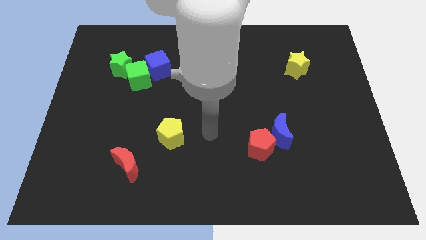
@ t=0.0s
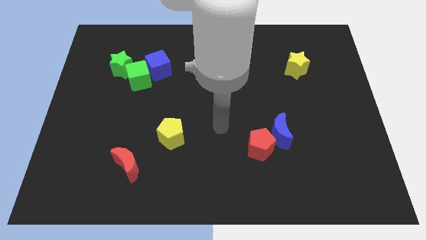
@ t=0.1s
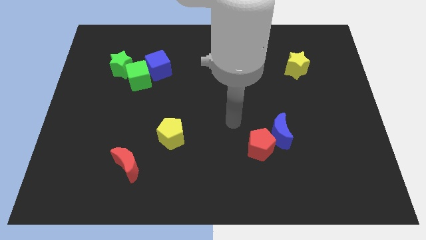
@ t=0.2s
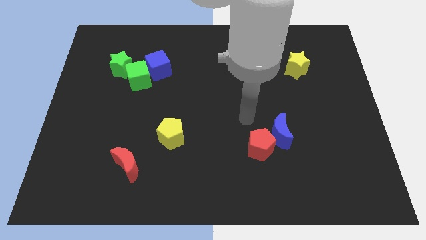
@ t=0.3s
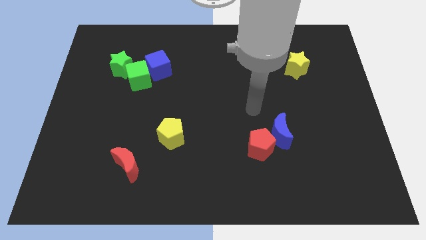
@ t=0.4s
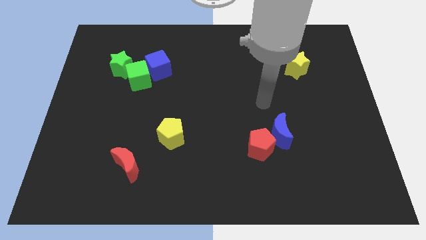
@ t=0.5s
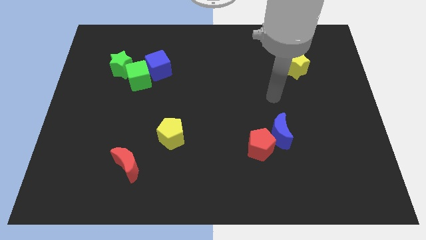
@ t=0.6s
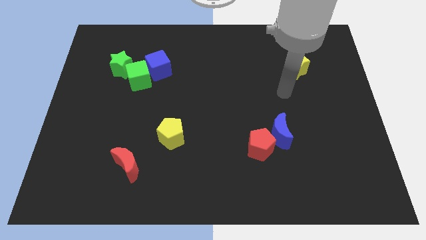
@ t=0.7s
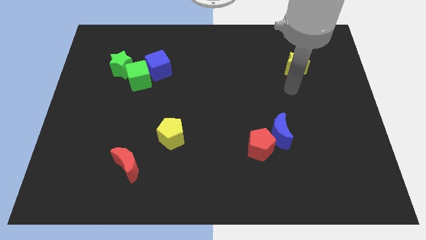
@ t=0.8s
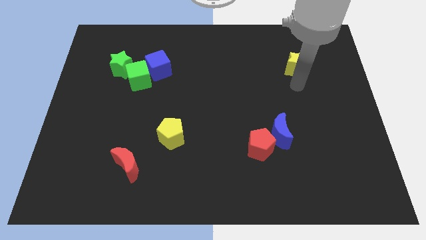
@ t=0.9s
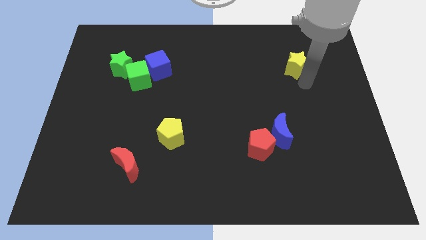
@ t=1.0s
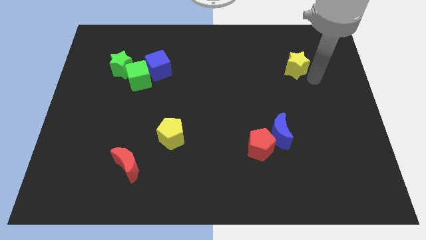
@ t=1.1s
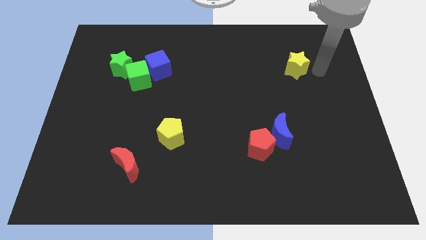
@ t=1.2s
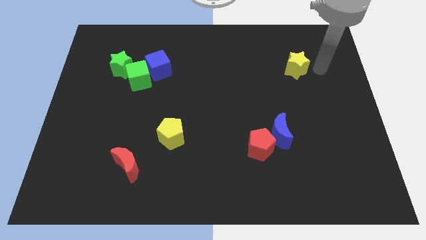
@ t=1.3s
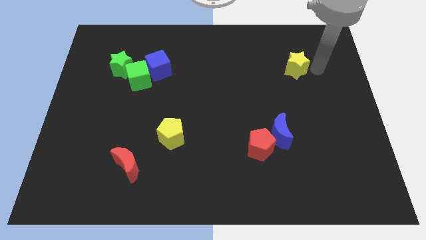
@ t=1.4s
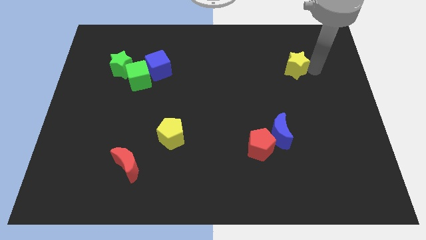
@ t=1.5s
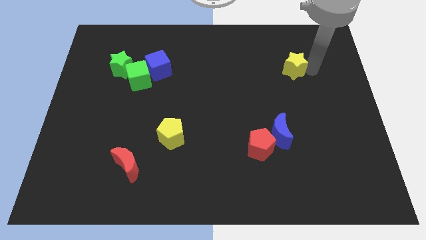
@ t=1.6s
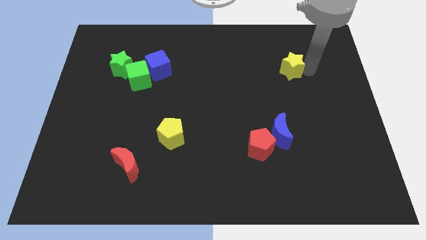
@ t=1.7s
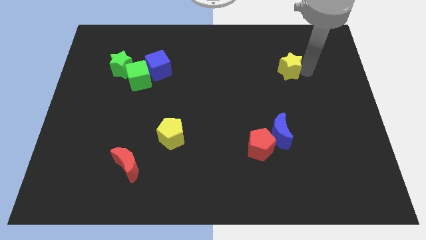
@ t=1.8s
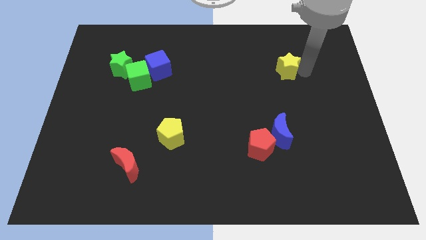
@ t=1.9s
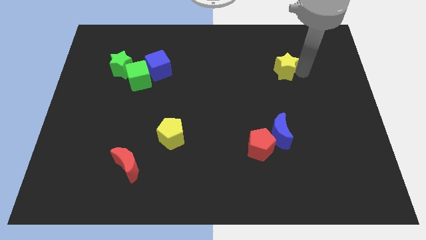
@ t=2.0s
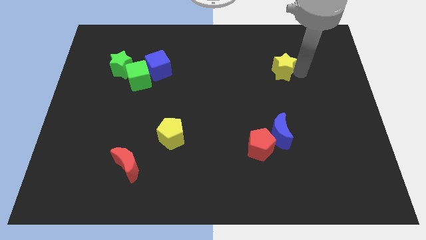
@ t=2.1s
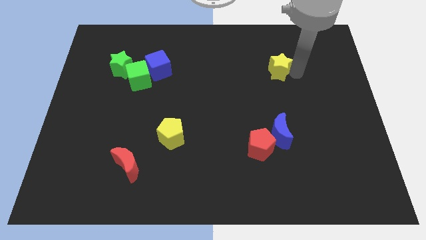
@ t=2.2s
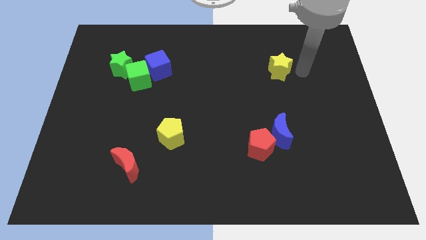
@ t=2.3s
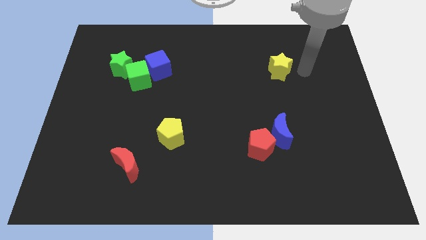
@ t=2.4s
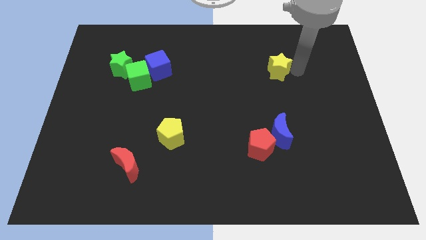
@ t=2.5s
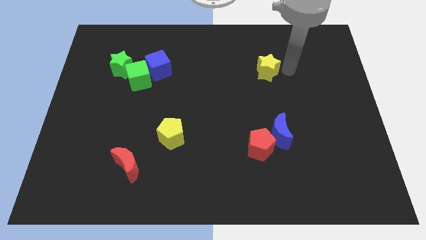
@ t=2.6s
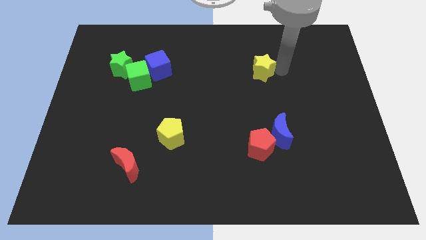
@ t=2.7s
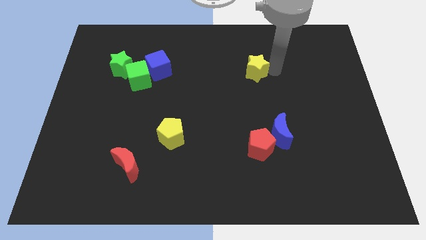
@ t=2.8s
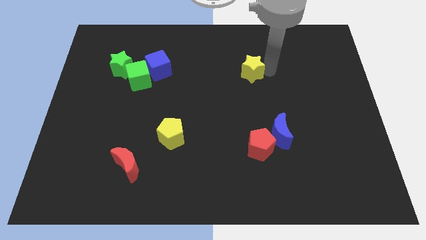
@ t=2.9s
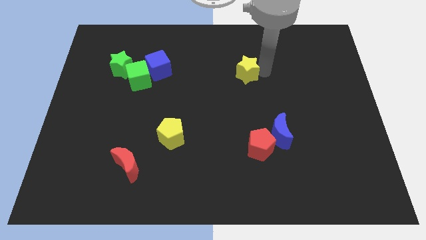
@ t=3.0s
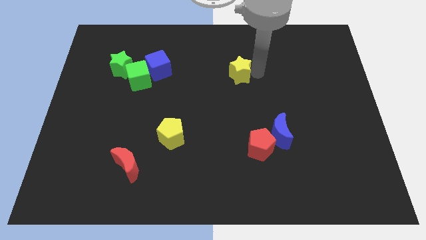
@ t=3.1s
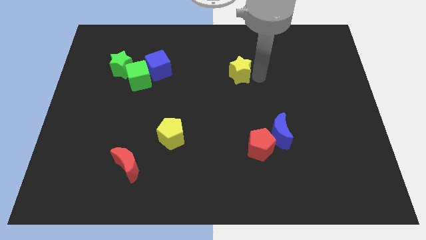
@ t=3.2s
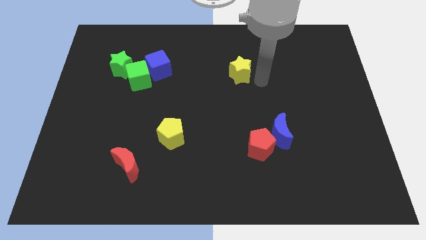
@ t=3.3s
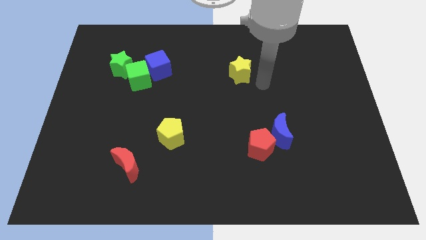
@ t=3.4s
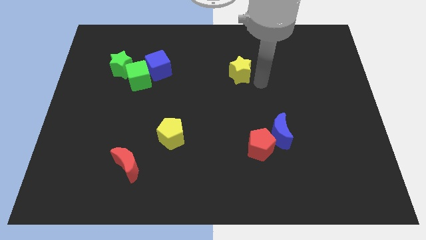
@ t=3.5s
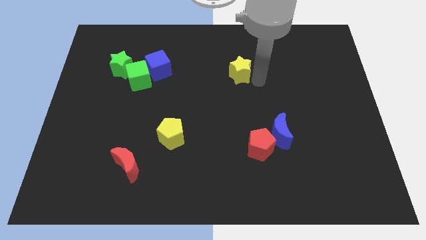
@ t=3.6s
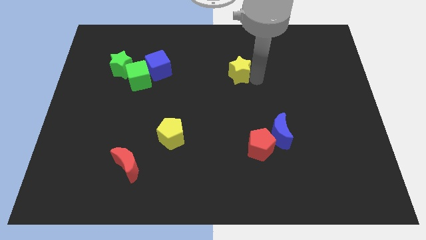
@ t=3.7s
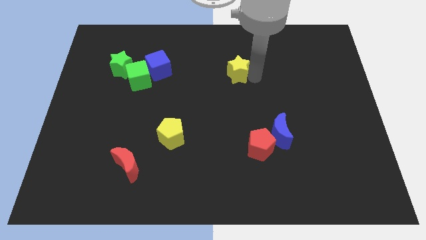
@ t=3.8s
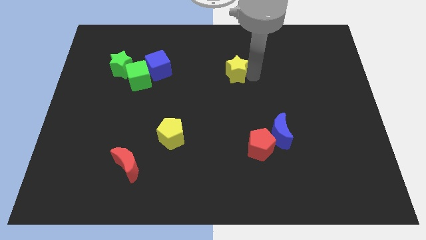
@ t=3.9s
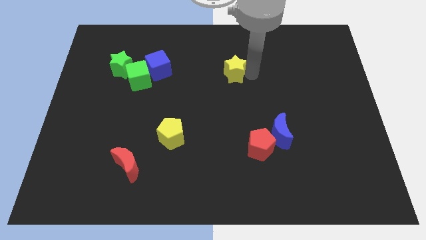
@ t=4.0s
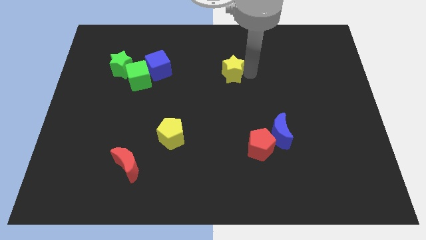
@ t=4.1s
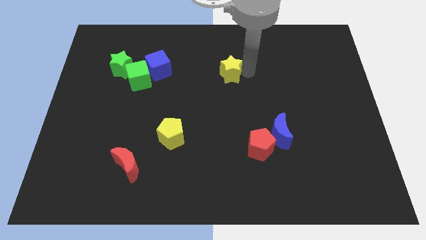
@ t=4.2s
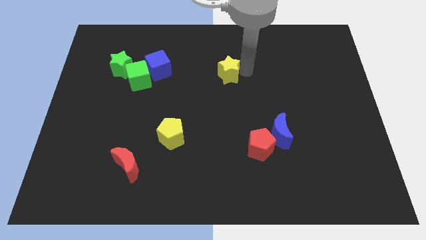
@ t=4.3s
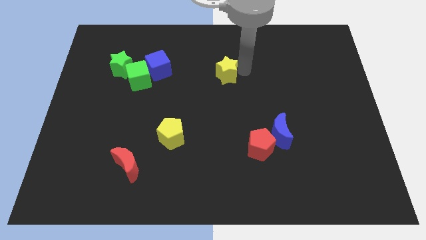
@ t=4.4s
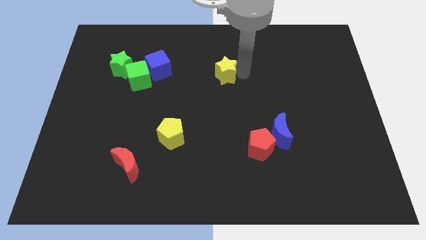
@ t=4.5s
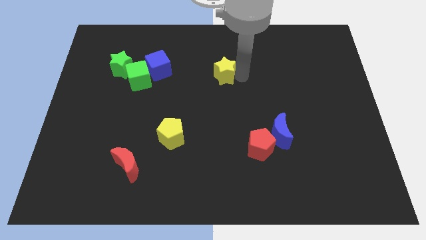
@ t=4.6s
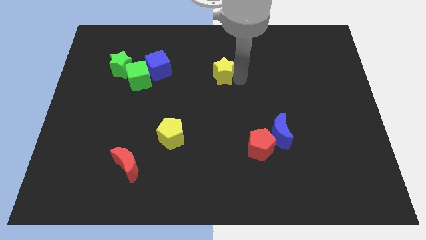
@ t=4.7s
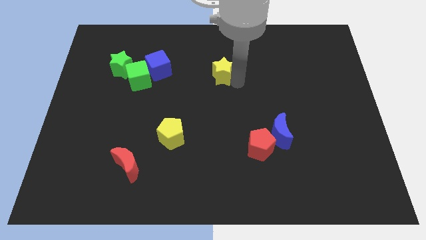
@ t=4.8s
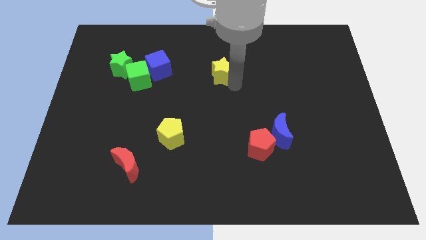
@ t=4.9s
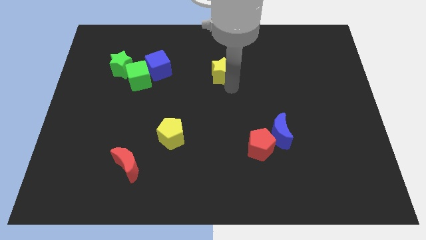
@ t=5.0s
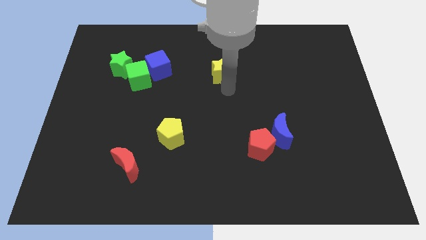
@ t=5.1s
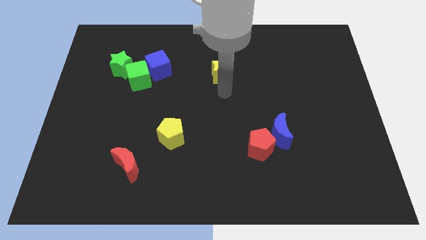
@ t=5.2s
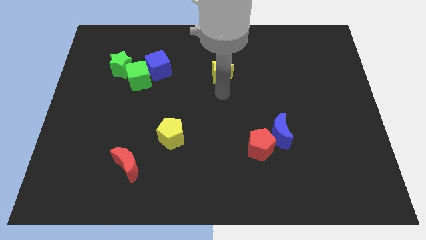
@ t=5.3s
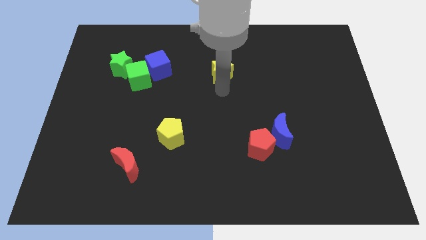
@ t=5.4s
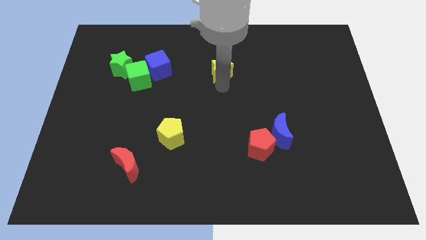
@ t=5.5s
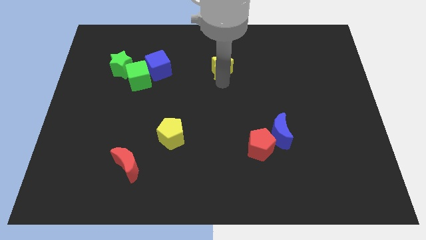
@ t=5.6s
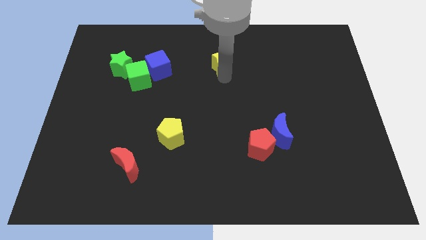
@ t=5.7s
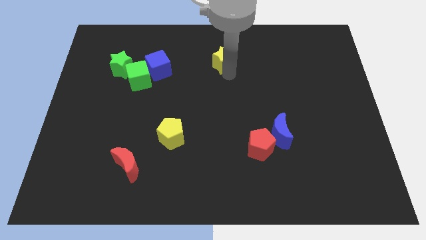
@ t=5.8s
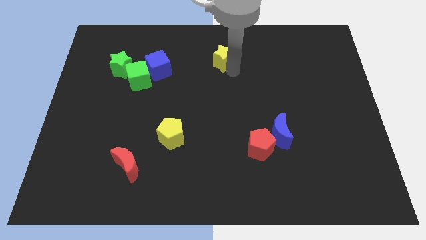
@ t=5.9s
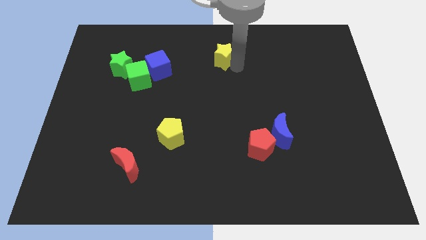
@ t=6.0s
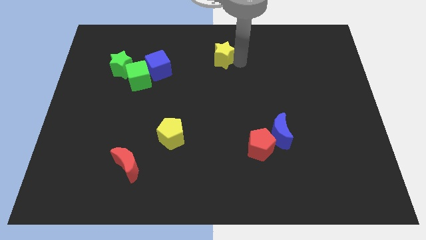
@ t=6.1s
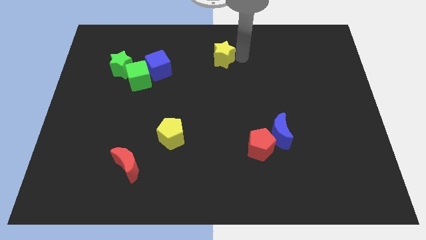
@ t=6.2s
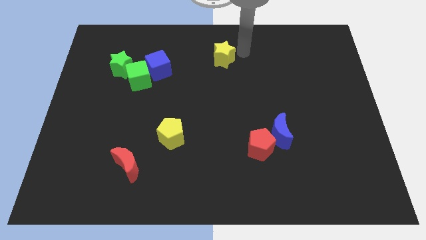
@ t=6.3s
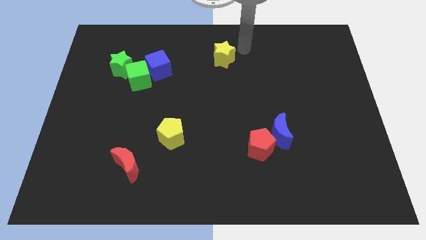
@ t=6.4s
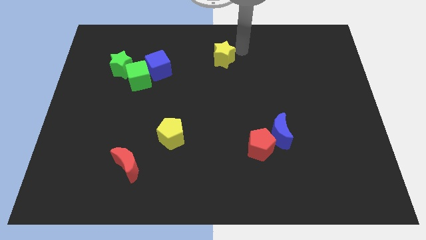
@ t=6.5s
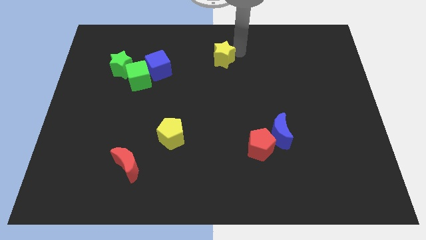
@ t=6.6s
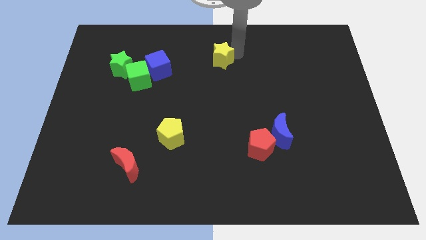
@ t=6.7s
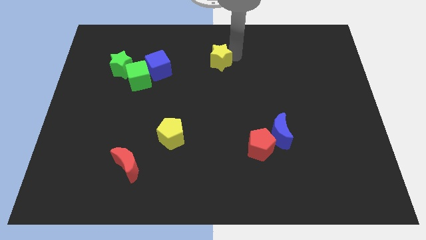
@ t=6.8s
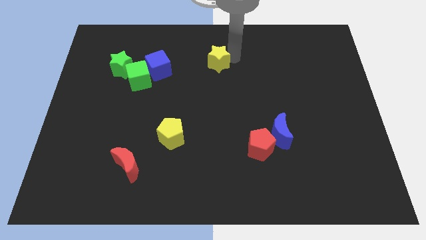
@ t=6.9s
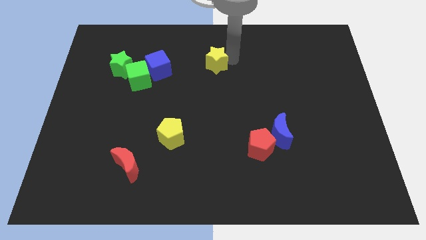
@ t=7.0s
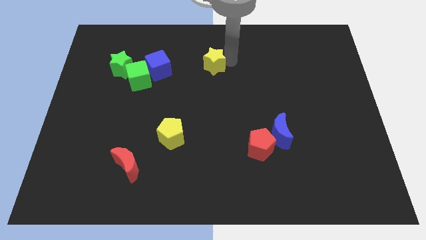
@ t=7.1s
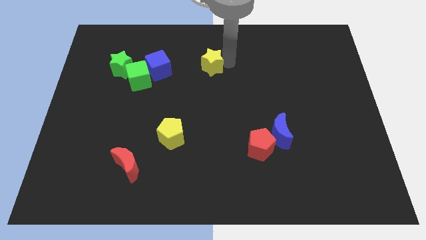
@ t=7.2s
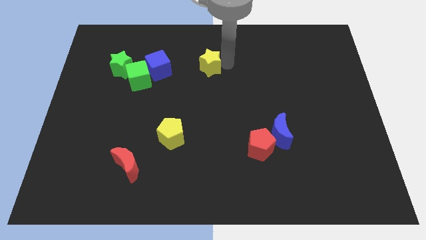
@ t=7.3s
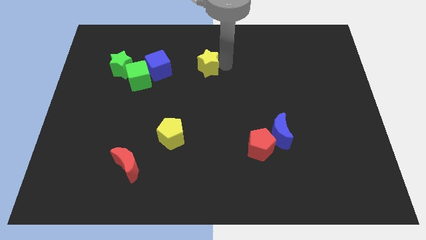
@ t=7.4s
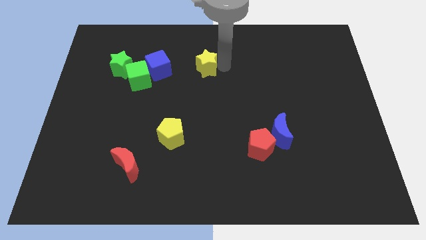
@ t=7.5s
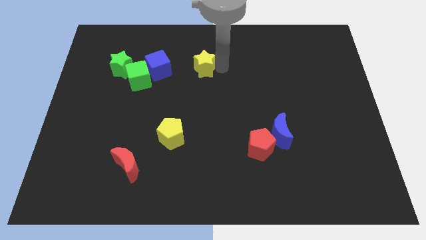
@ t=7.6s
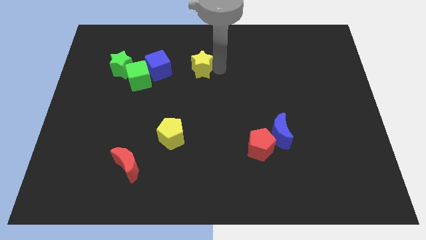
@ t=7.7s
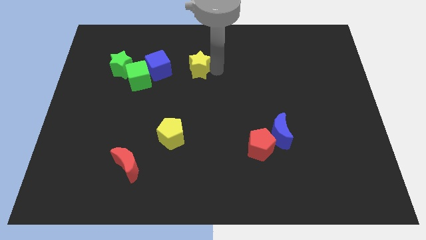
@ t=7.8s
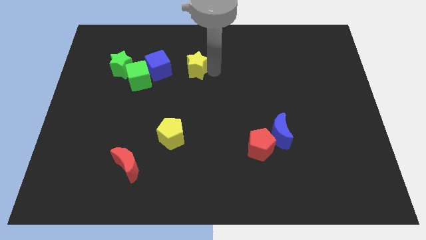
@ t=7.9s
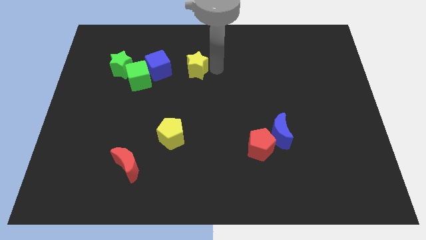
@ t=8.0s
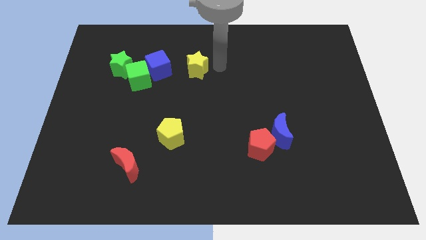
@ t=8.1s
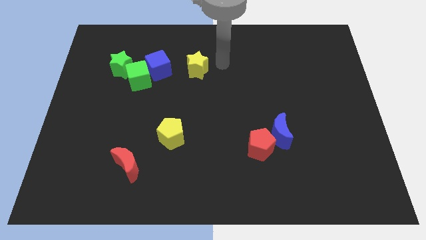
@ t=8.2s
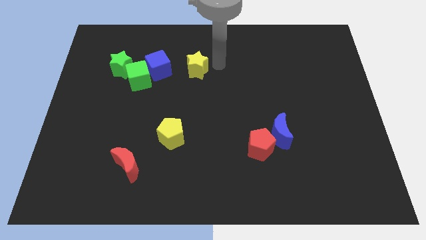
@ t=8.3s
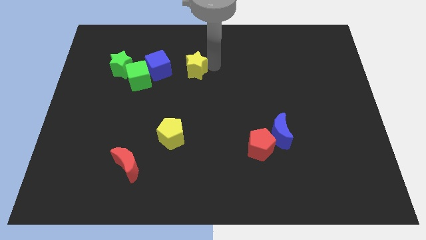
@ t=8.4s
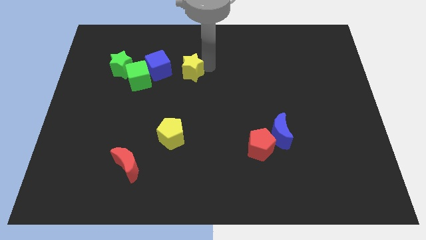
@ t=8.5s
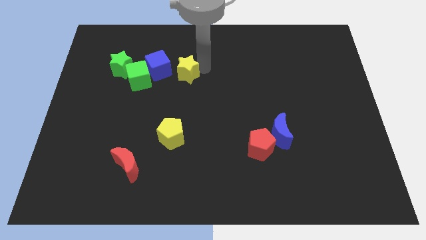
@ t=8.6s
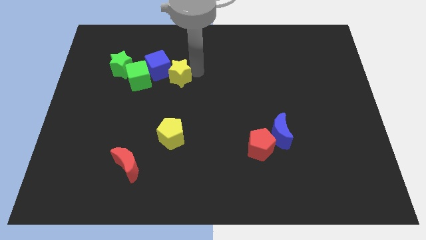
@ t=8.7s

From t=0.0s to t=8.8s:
slide the yellow star towards the blue cube
